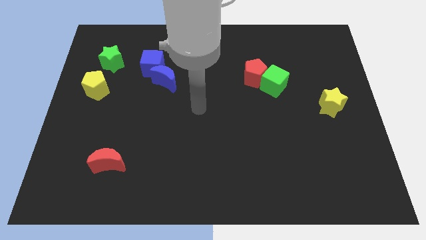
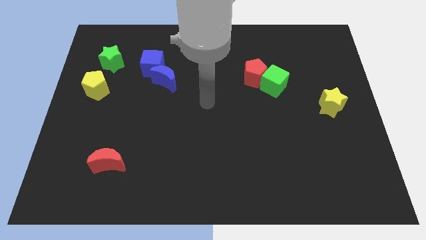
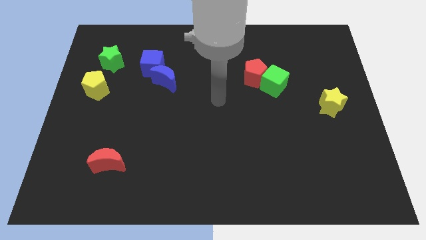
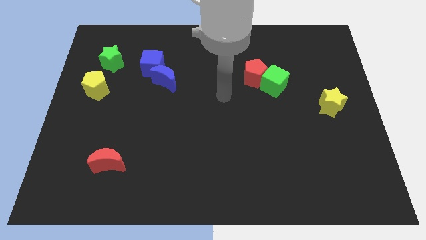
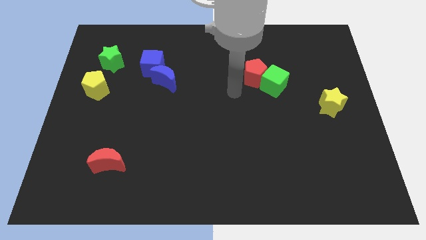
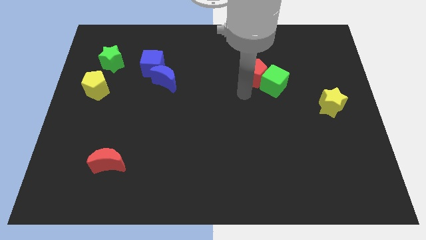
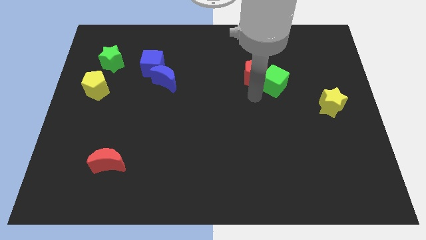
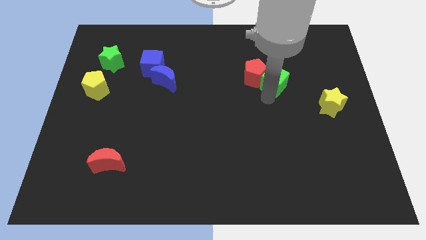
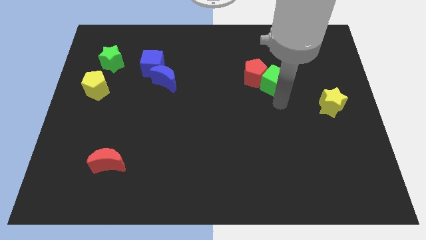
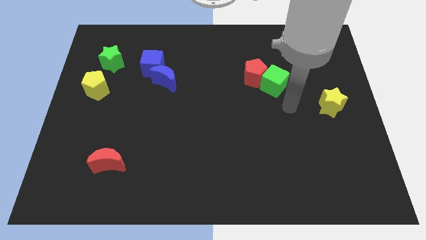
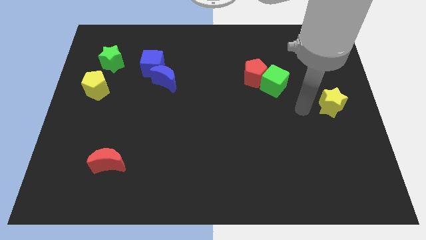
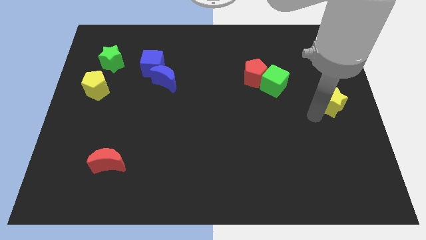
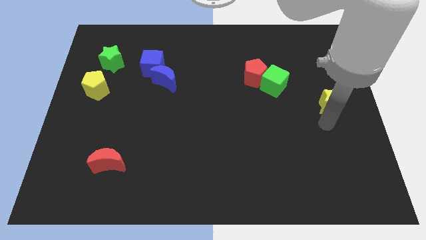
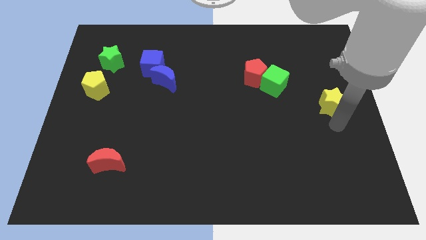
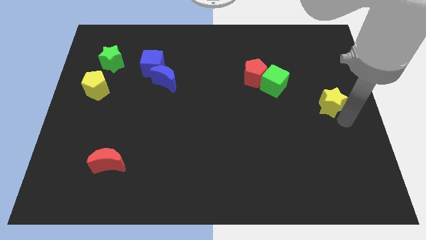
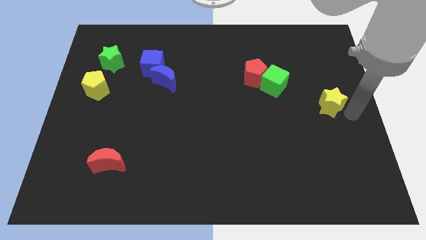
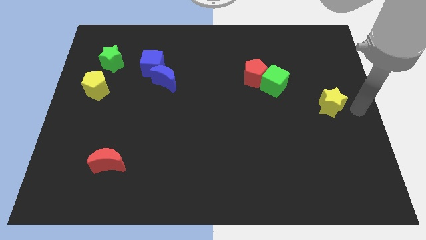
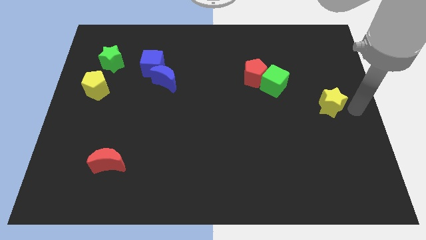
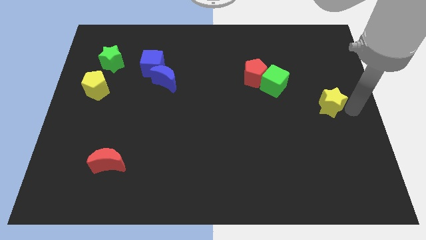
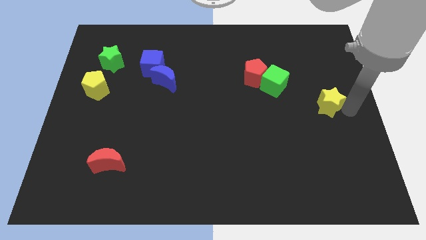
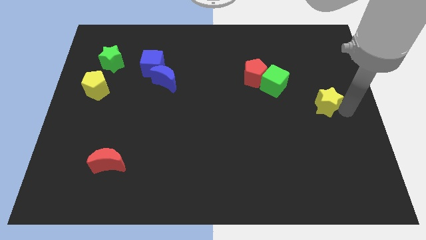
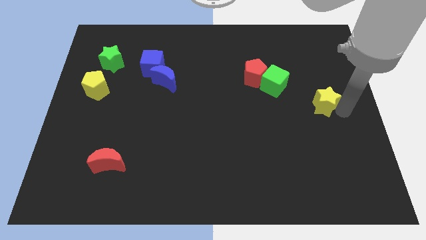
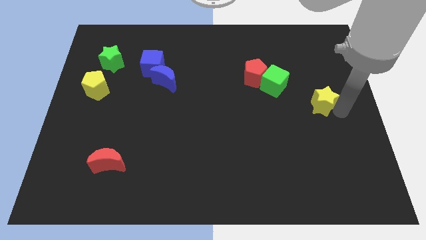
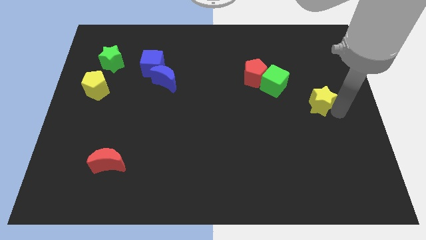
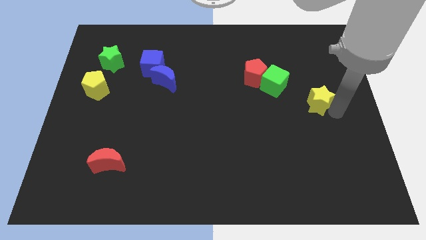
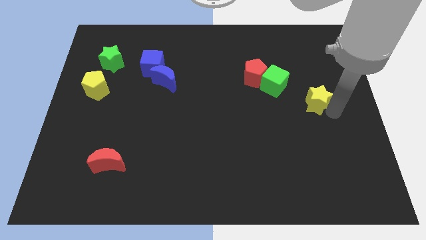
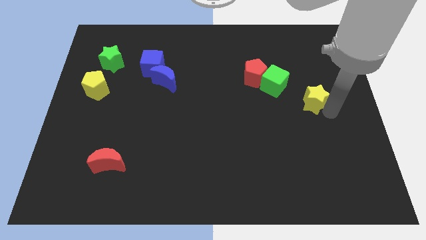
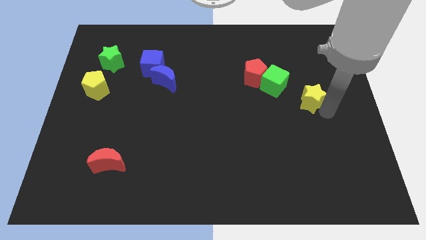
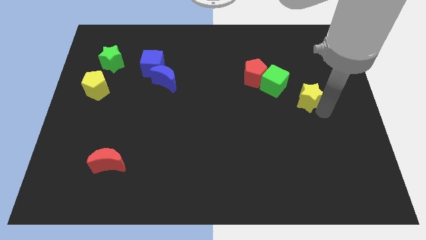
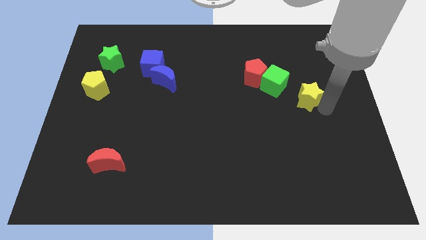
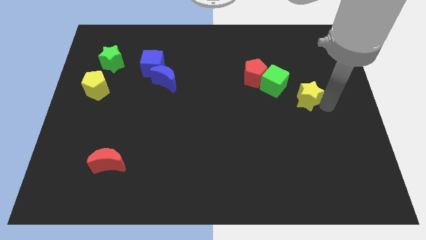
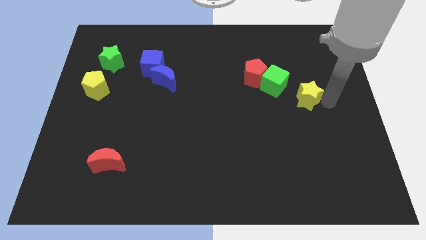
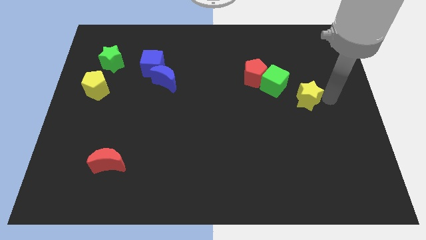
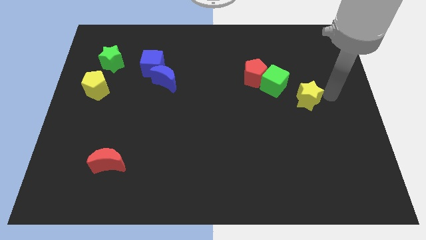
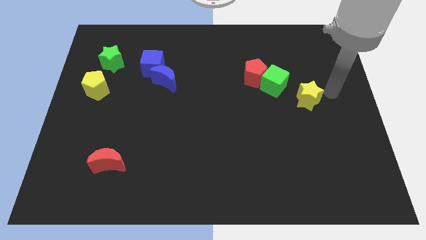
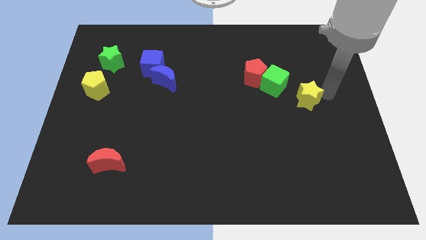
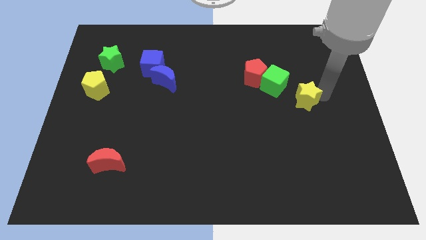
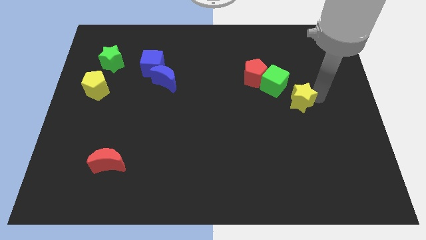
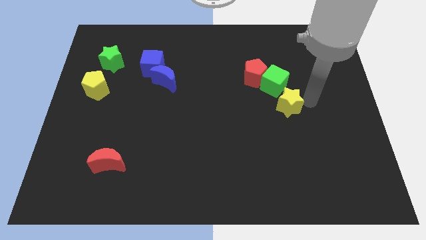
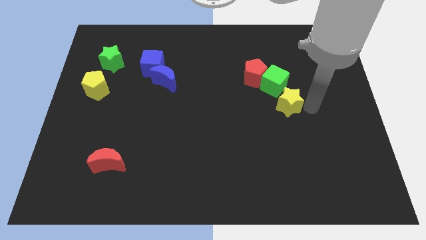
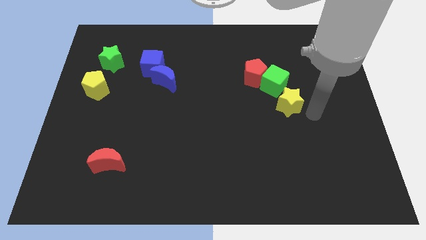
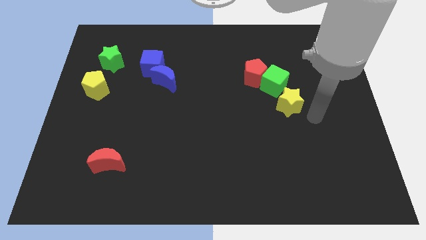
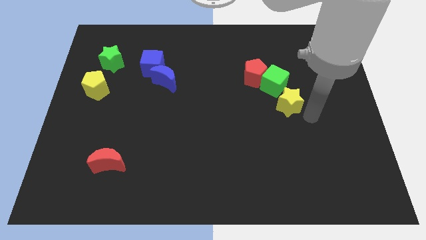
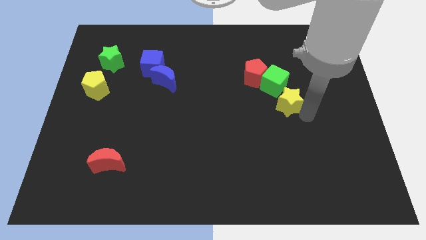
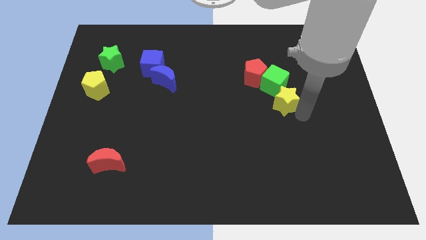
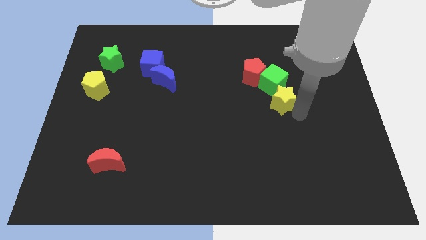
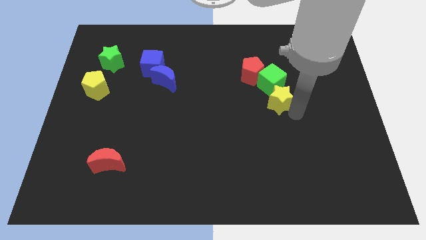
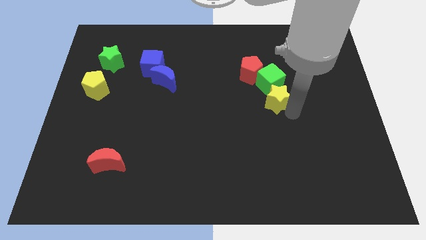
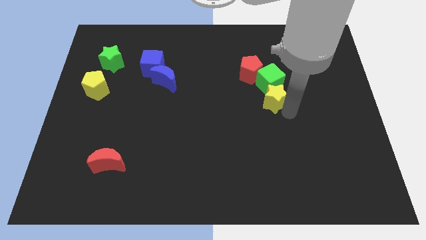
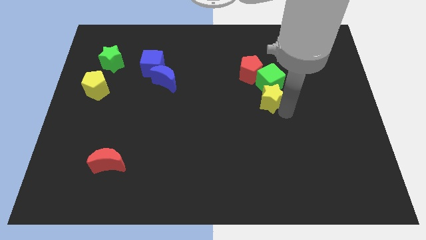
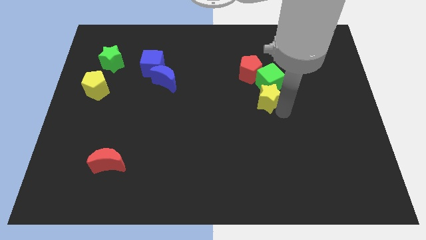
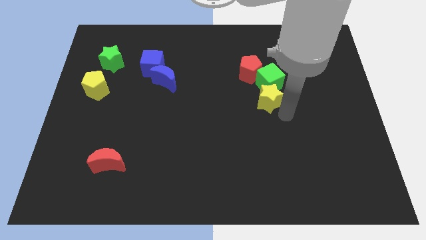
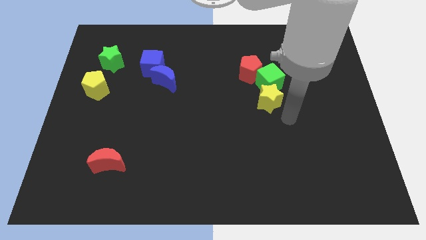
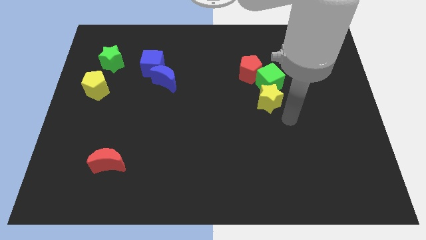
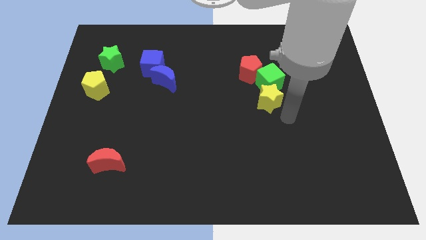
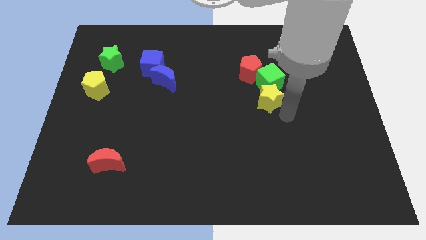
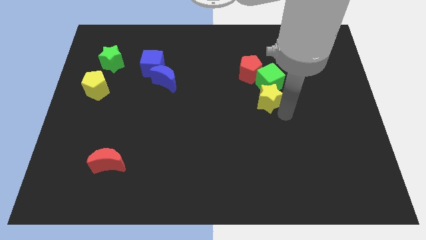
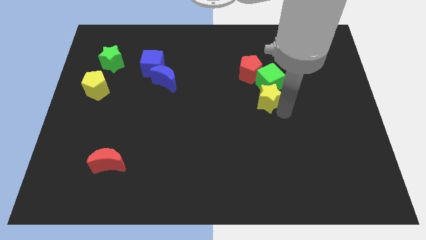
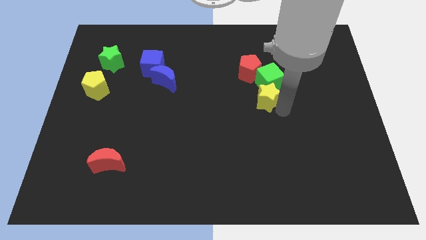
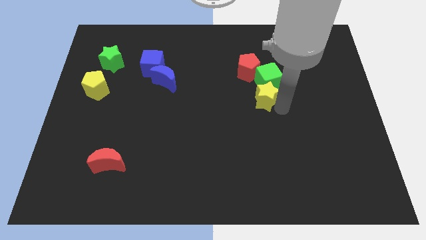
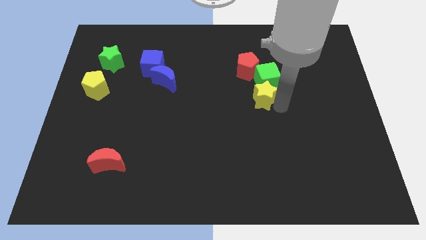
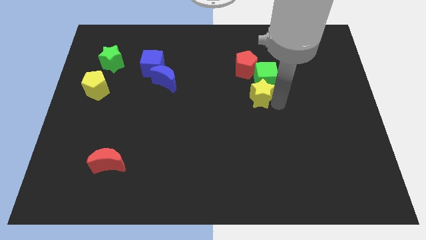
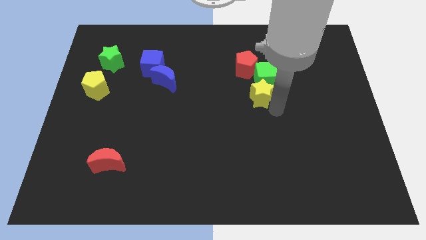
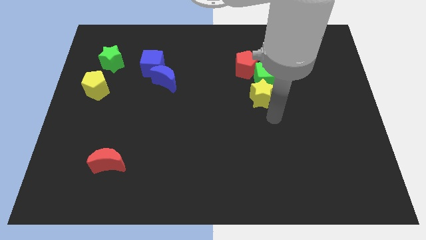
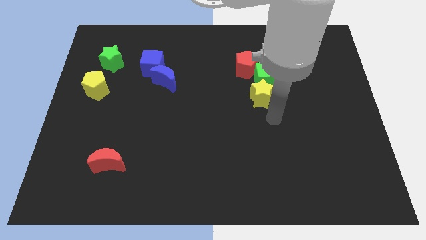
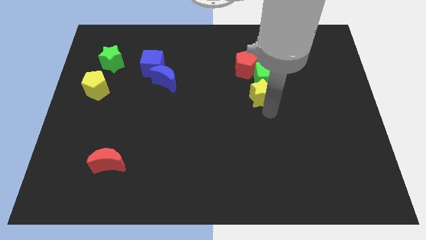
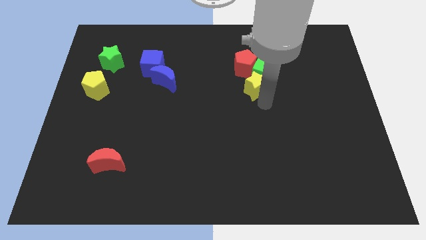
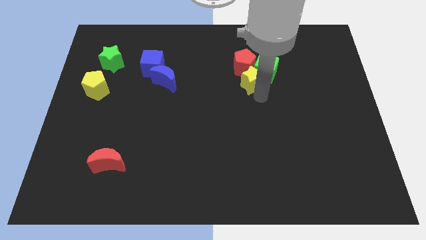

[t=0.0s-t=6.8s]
put the yellow star towards the red pentagon

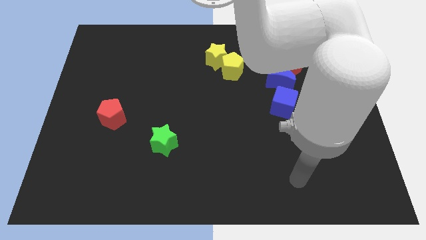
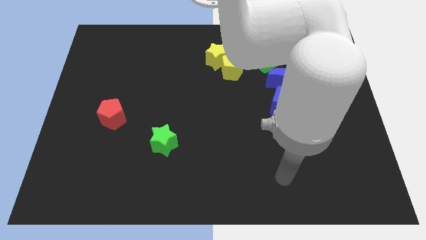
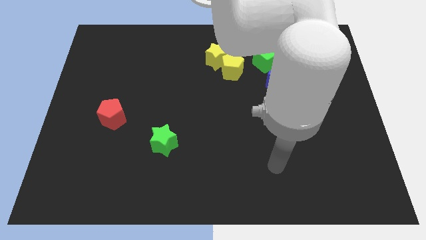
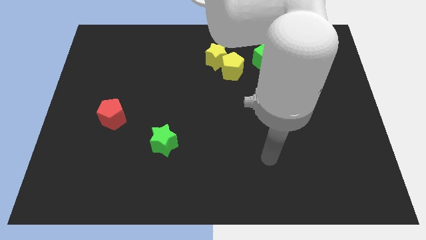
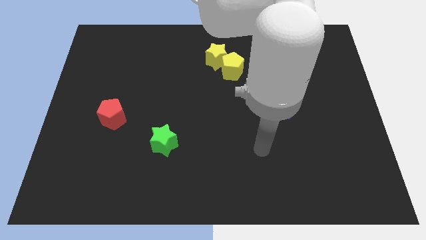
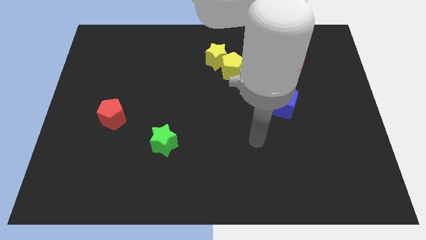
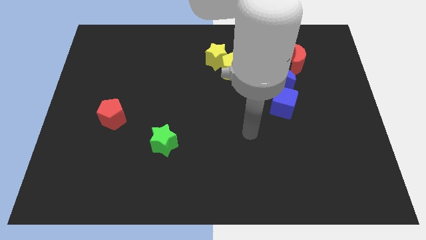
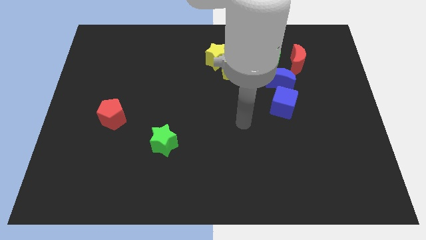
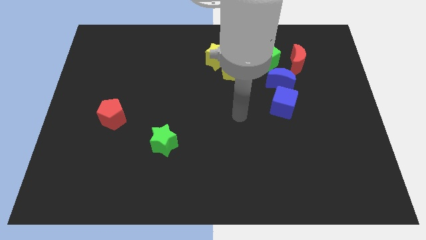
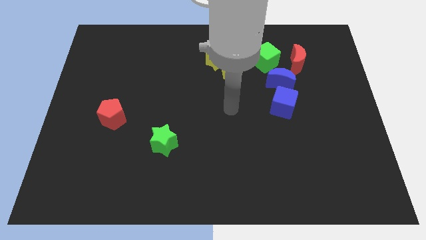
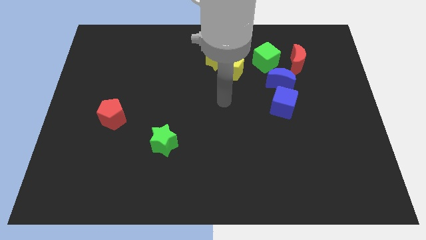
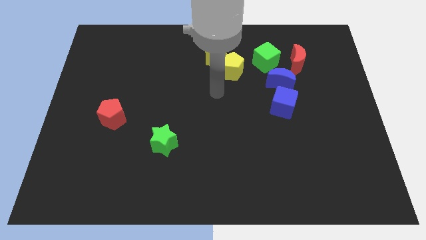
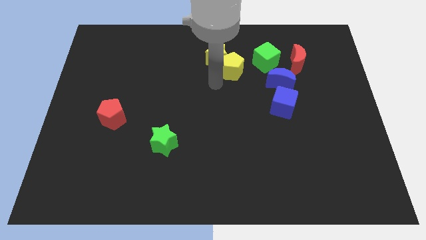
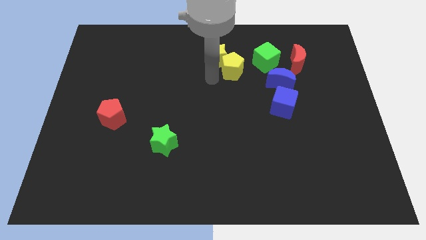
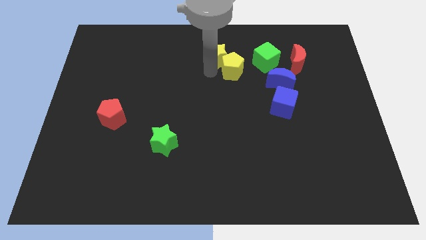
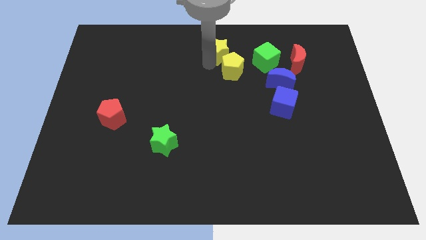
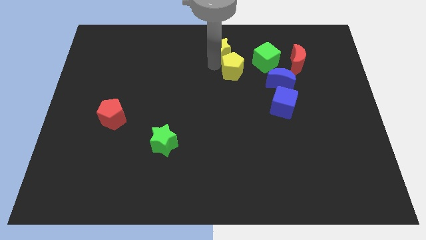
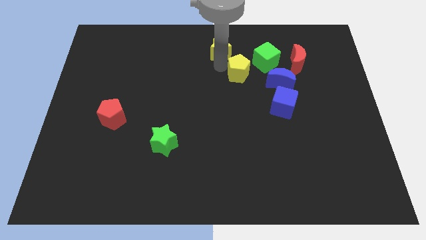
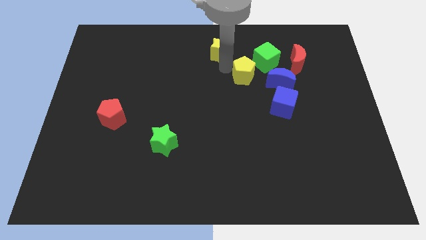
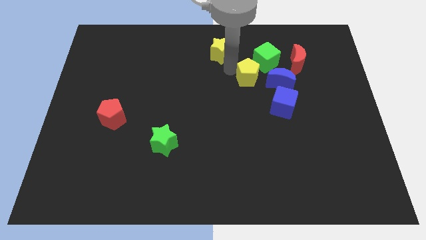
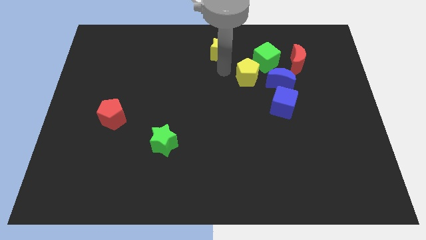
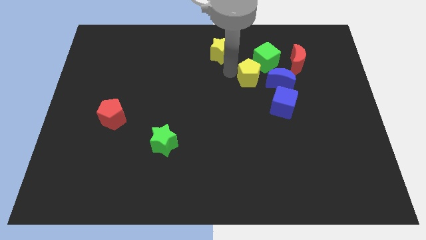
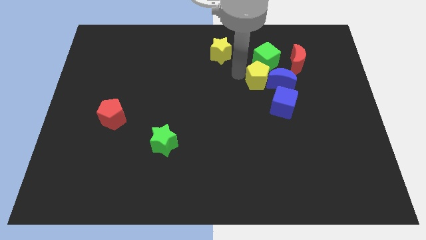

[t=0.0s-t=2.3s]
put the yellow pentagon to the blue moon
